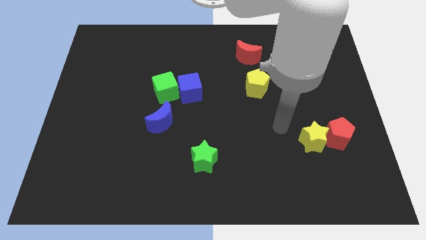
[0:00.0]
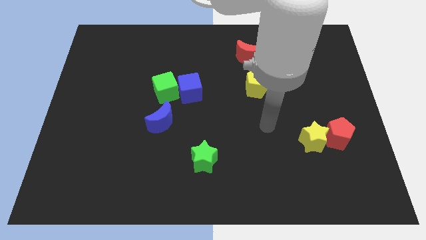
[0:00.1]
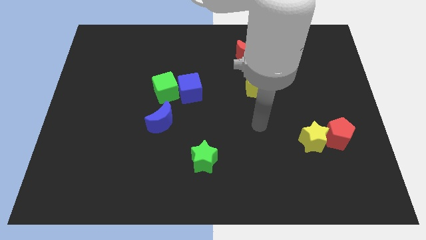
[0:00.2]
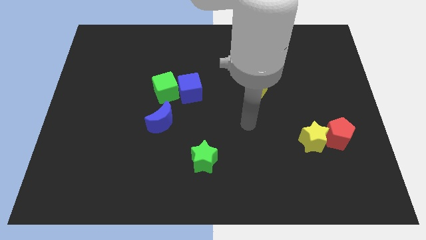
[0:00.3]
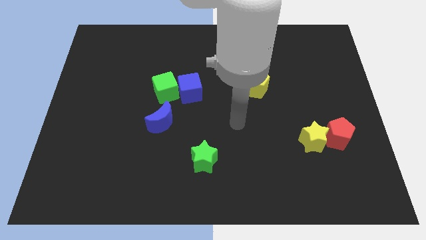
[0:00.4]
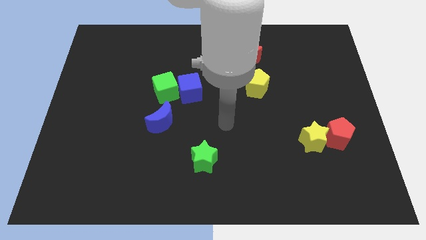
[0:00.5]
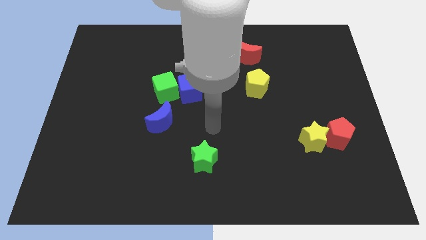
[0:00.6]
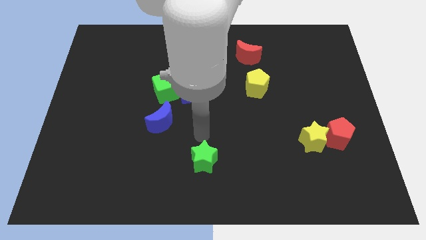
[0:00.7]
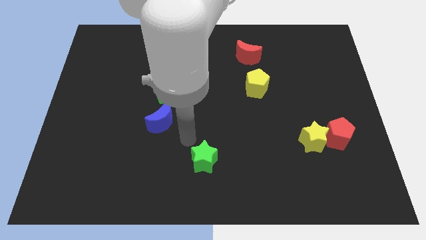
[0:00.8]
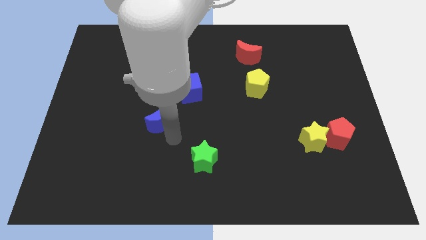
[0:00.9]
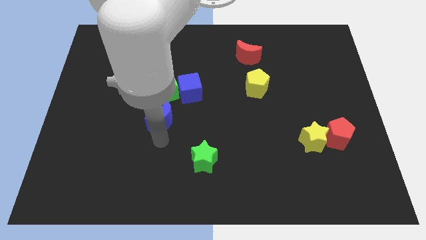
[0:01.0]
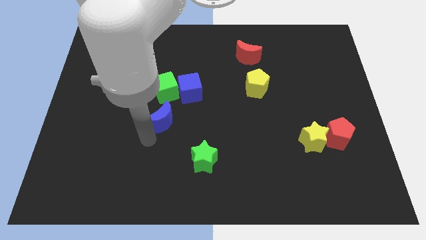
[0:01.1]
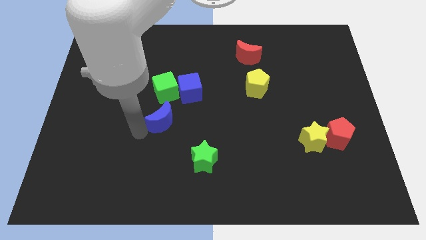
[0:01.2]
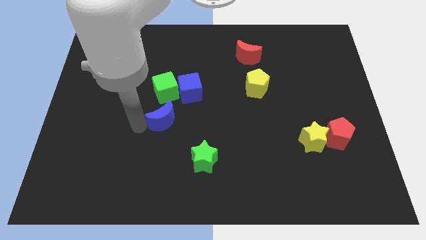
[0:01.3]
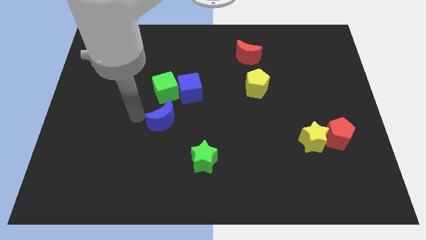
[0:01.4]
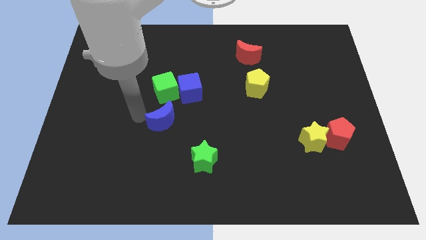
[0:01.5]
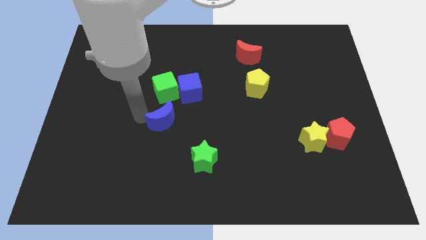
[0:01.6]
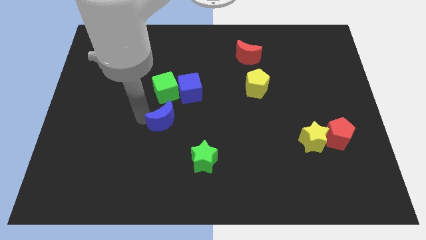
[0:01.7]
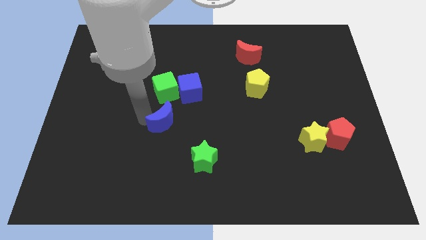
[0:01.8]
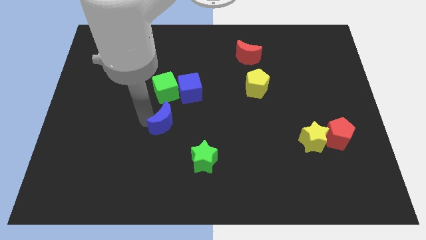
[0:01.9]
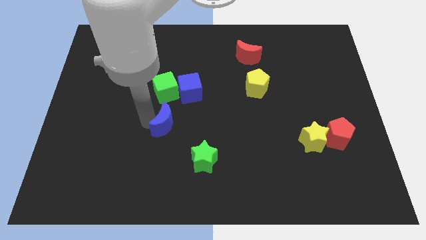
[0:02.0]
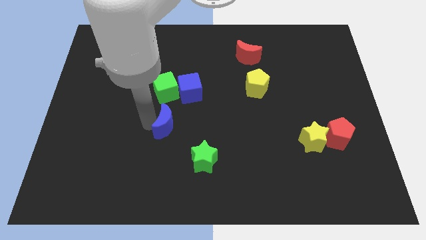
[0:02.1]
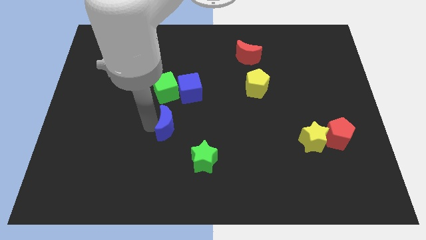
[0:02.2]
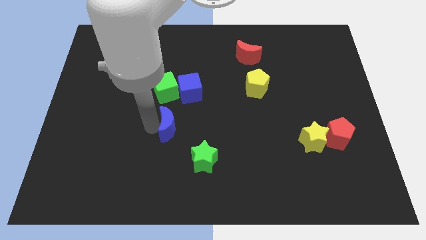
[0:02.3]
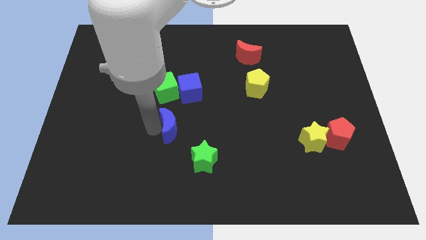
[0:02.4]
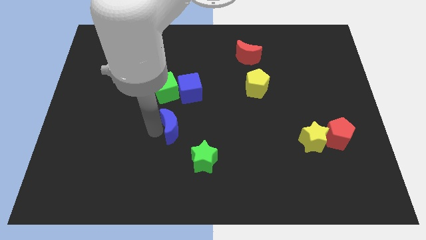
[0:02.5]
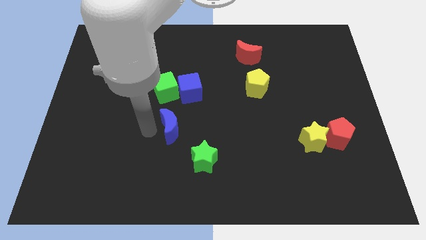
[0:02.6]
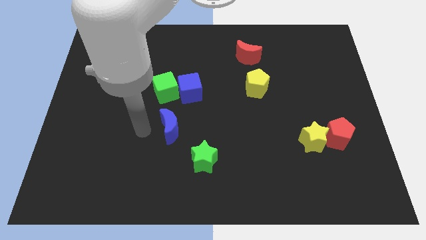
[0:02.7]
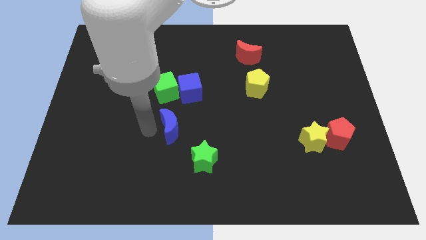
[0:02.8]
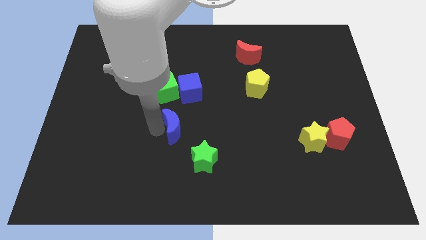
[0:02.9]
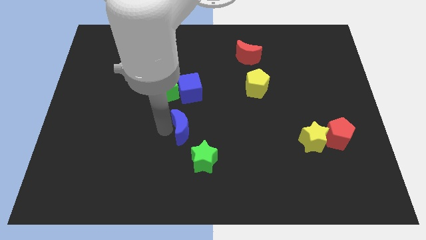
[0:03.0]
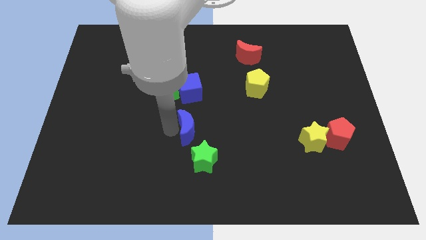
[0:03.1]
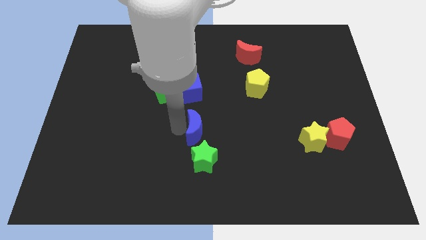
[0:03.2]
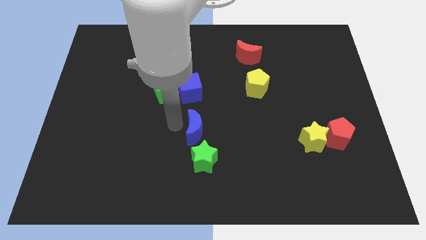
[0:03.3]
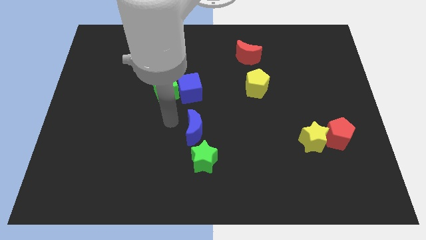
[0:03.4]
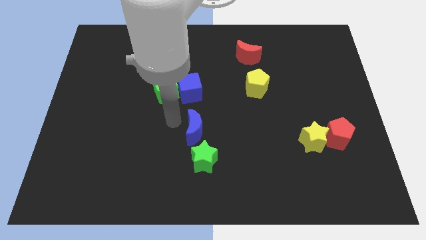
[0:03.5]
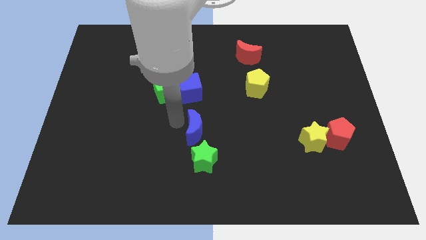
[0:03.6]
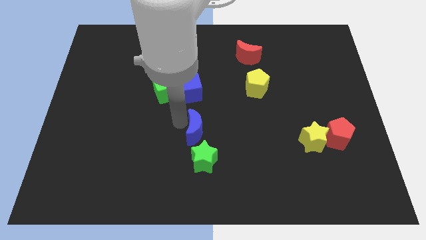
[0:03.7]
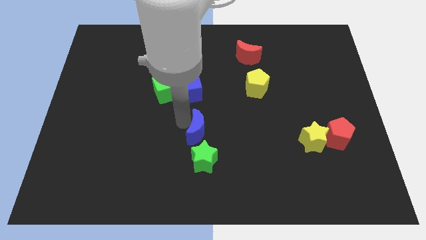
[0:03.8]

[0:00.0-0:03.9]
move the blue moon down and then right slightly

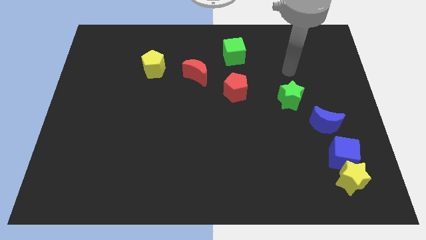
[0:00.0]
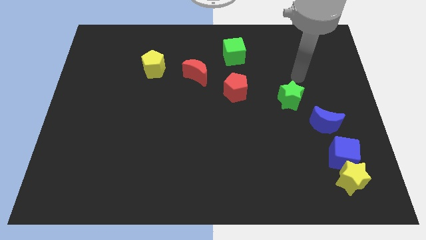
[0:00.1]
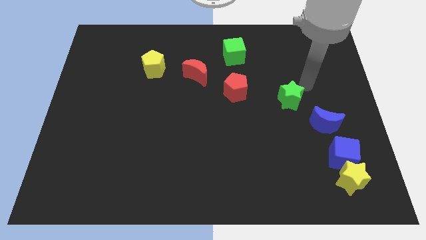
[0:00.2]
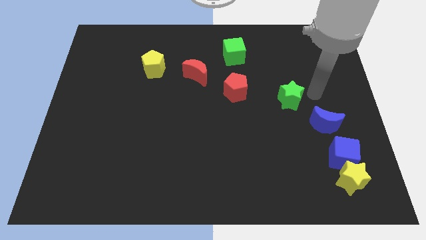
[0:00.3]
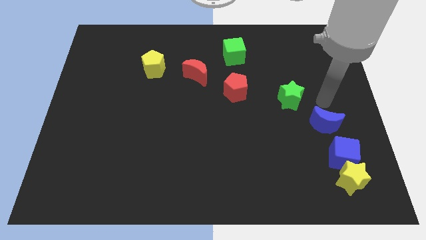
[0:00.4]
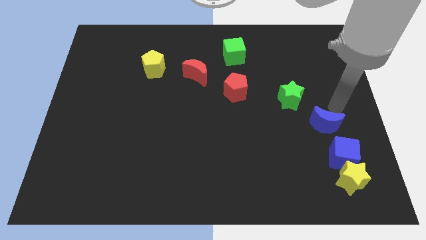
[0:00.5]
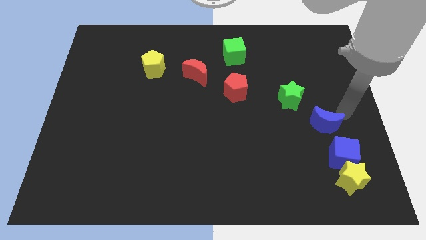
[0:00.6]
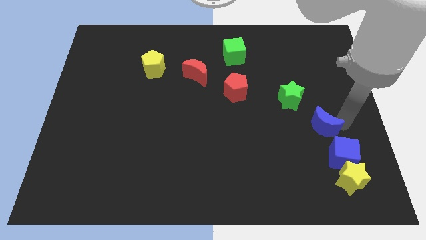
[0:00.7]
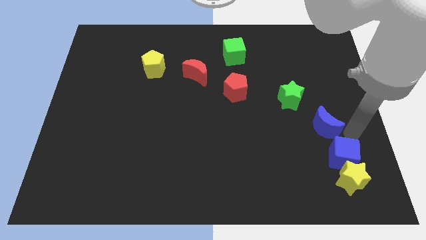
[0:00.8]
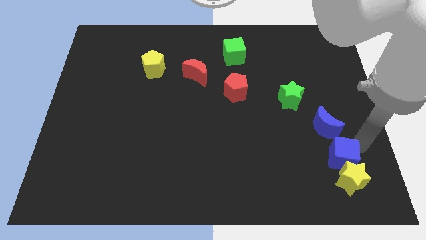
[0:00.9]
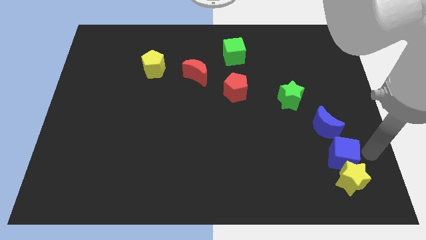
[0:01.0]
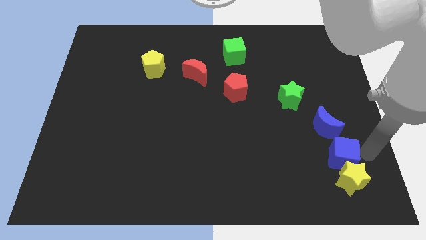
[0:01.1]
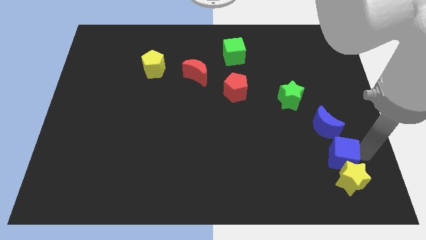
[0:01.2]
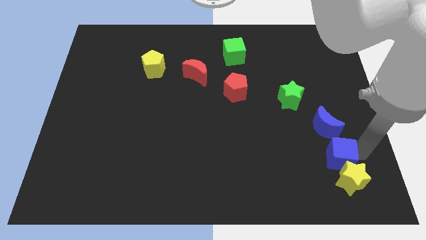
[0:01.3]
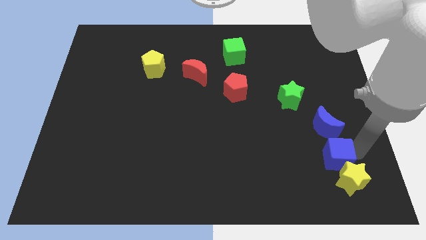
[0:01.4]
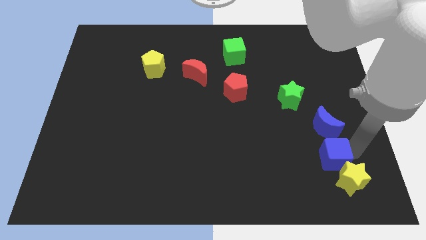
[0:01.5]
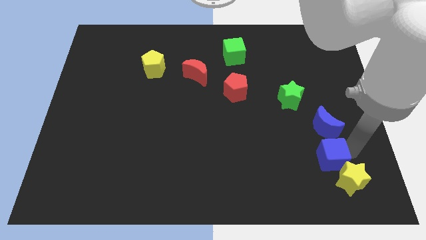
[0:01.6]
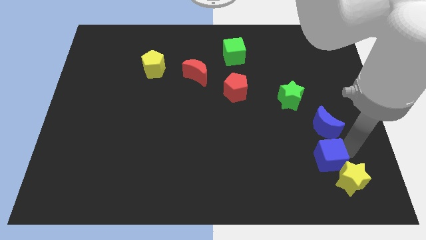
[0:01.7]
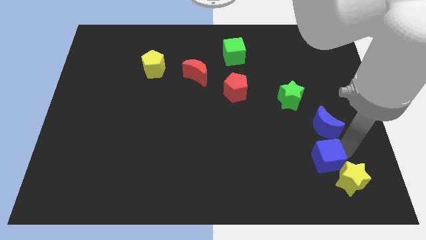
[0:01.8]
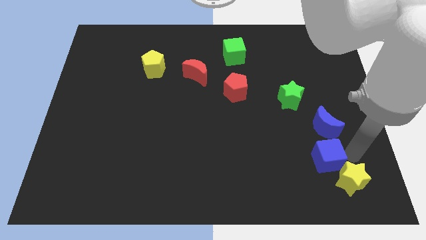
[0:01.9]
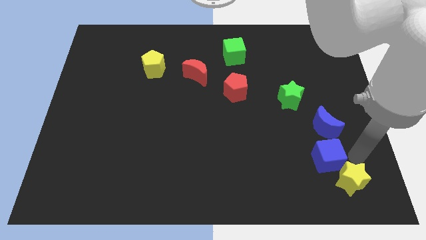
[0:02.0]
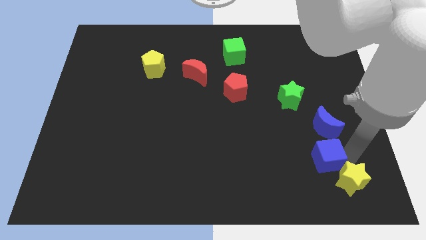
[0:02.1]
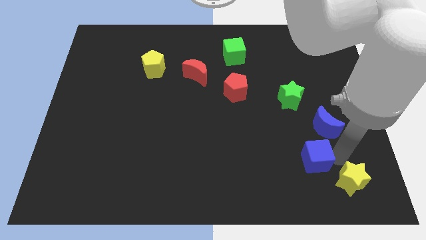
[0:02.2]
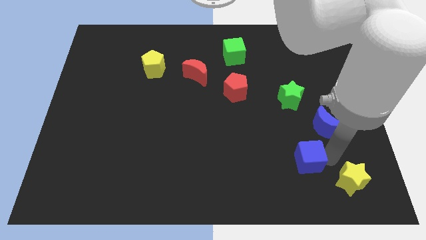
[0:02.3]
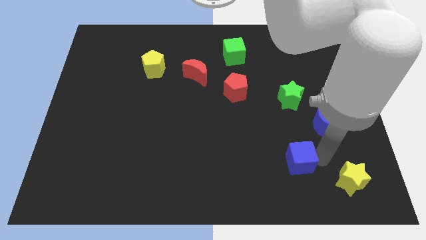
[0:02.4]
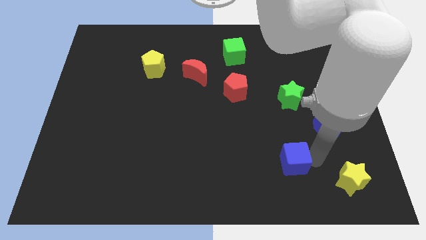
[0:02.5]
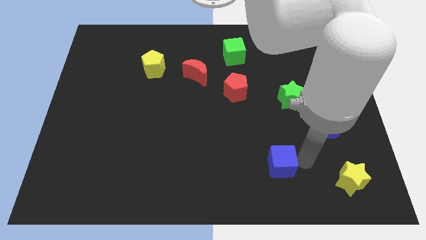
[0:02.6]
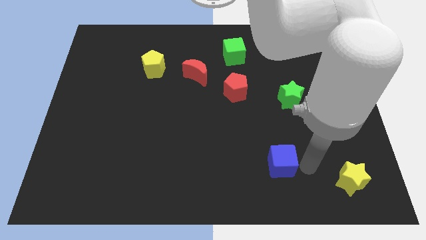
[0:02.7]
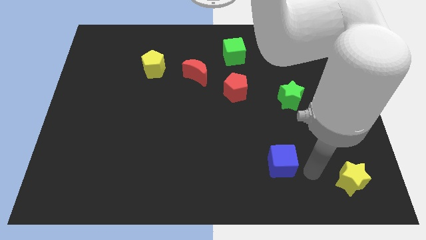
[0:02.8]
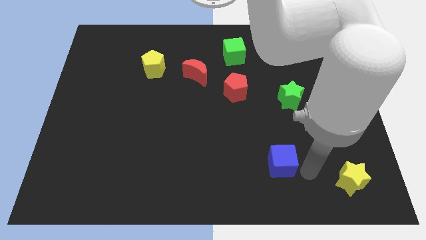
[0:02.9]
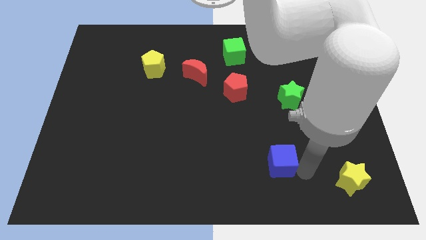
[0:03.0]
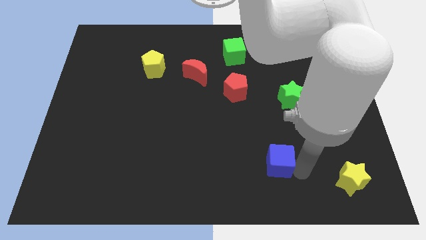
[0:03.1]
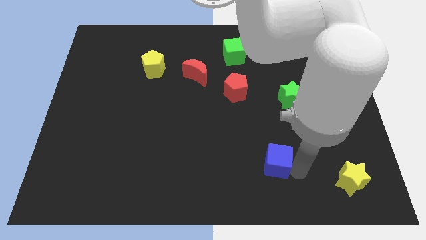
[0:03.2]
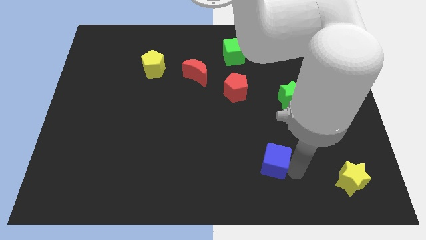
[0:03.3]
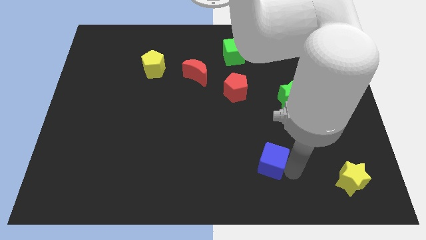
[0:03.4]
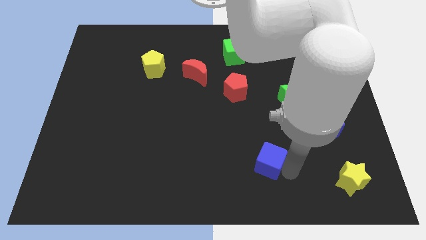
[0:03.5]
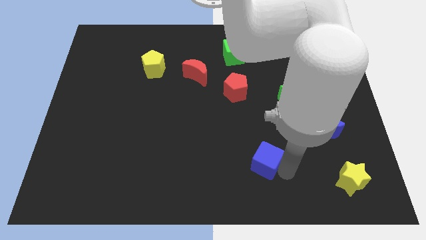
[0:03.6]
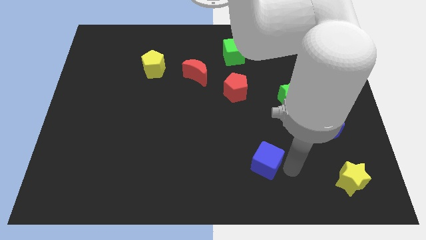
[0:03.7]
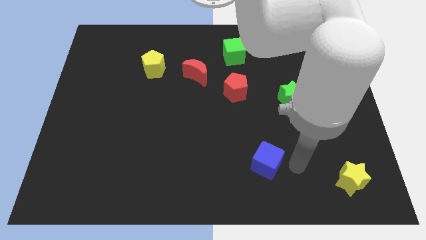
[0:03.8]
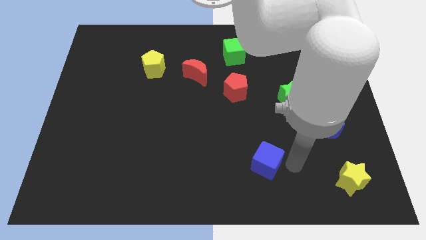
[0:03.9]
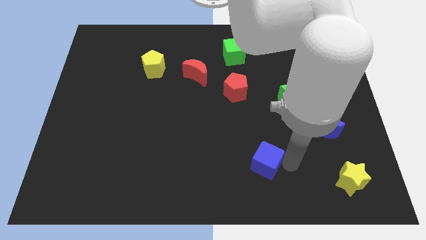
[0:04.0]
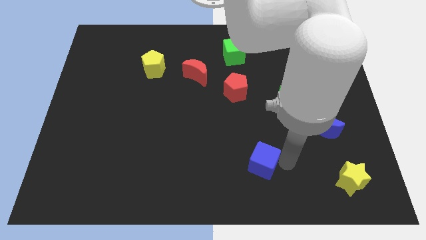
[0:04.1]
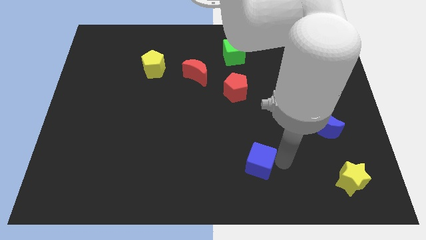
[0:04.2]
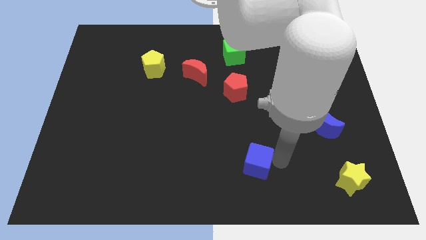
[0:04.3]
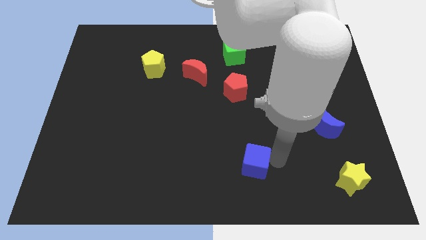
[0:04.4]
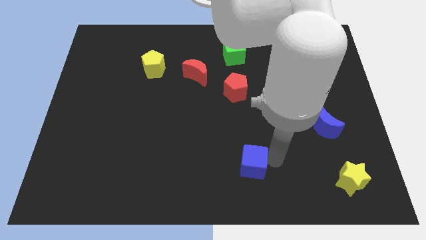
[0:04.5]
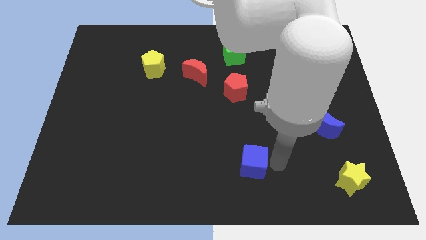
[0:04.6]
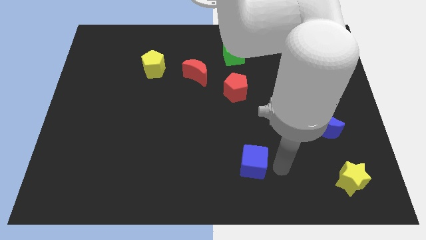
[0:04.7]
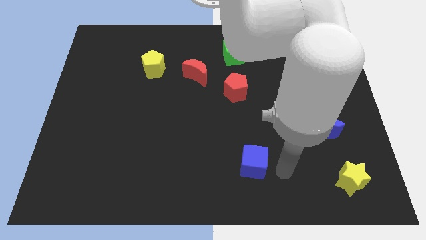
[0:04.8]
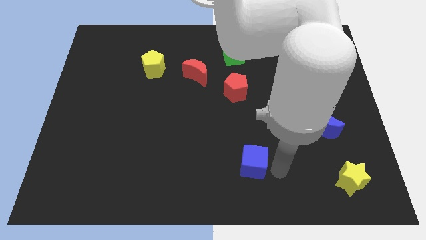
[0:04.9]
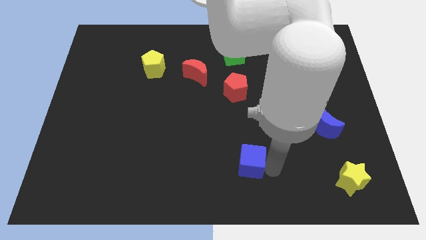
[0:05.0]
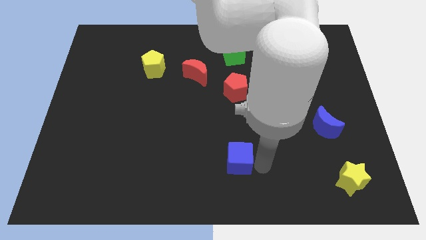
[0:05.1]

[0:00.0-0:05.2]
move the blue cube left
